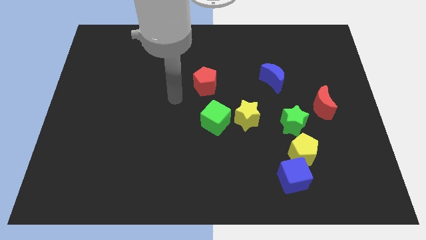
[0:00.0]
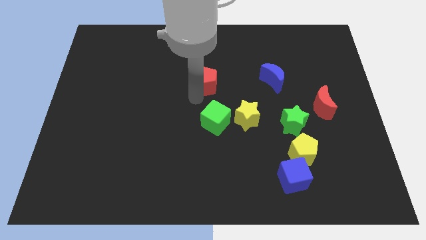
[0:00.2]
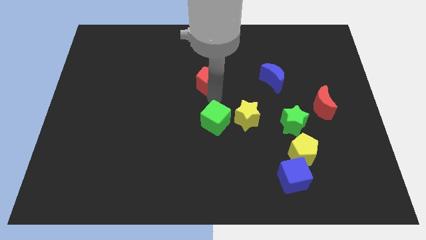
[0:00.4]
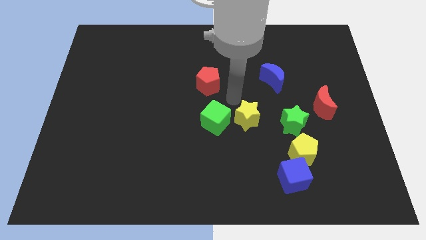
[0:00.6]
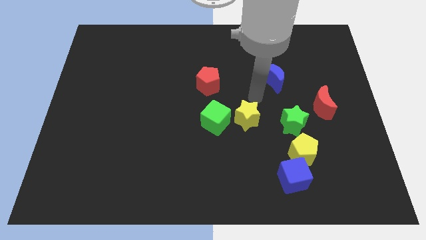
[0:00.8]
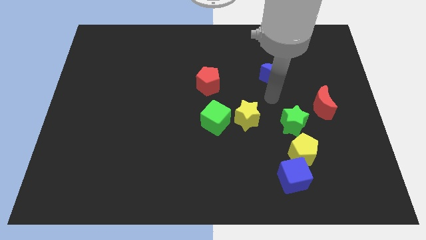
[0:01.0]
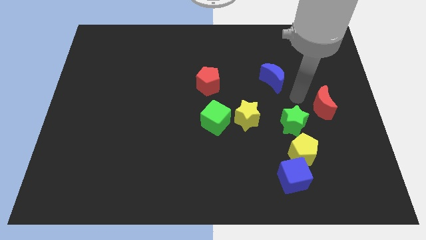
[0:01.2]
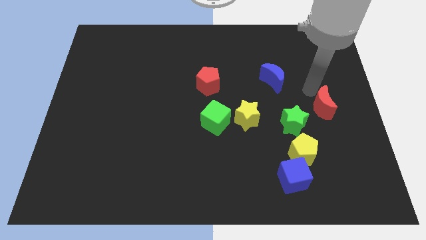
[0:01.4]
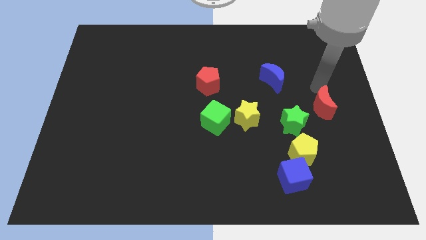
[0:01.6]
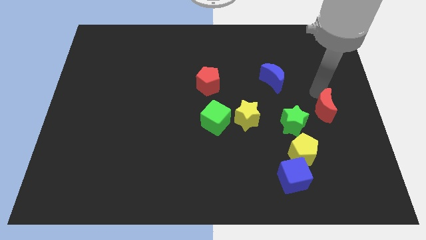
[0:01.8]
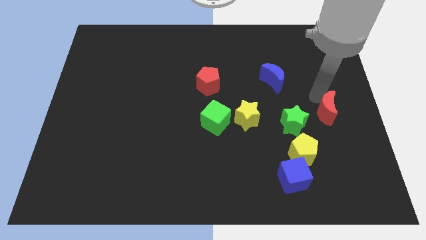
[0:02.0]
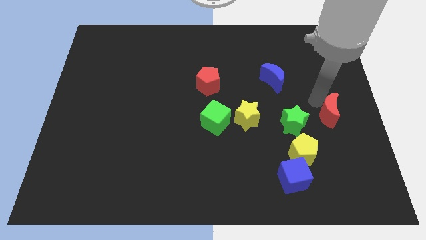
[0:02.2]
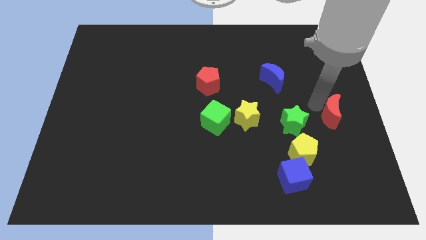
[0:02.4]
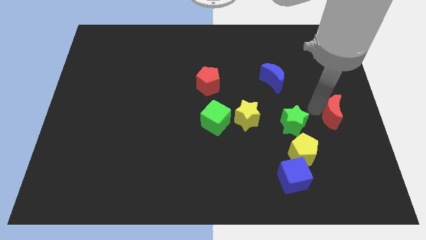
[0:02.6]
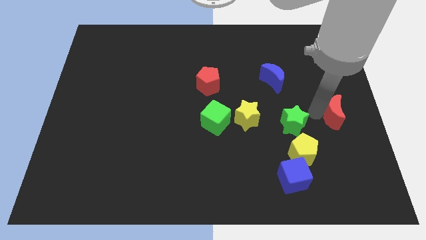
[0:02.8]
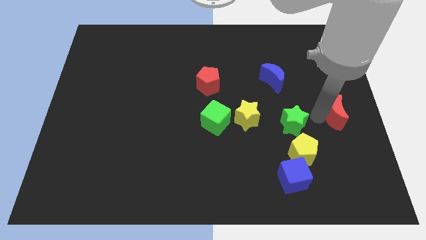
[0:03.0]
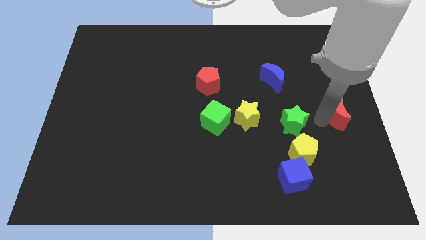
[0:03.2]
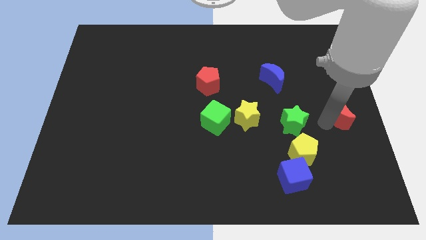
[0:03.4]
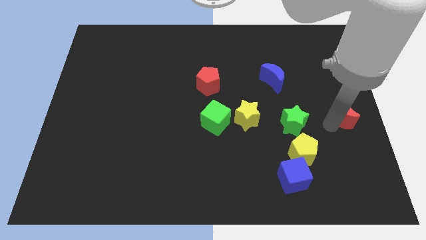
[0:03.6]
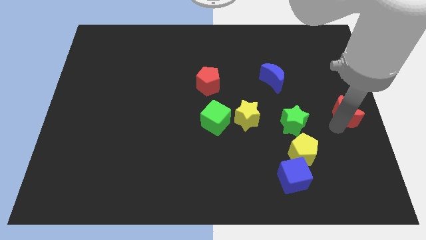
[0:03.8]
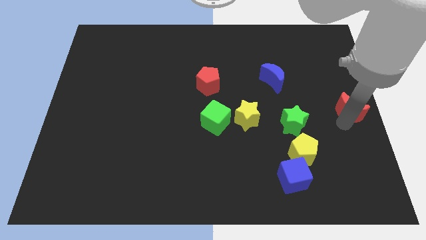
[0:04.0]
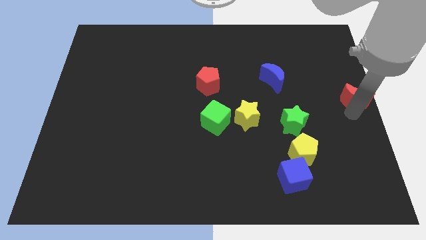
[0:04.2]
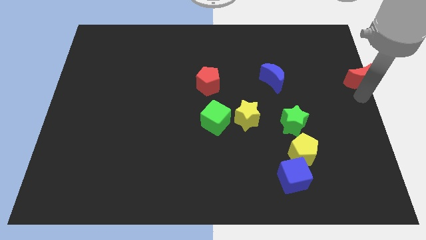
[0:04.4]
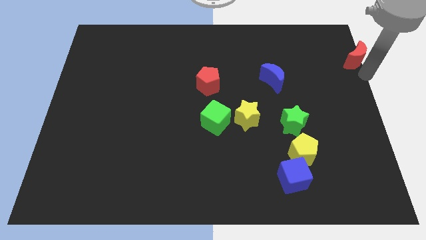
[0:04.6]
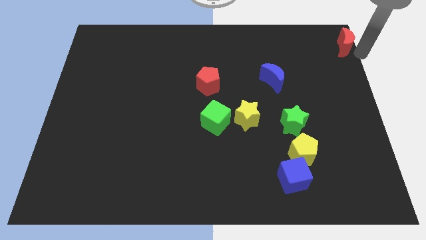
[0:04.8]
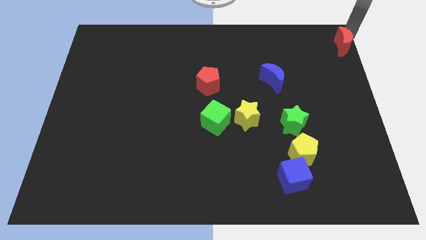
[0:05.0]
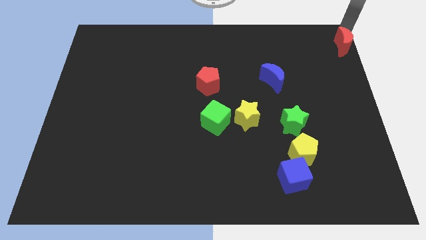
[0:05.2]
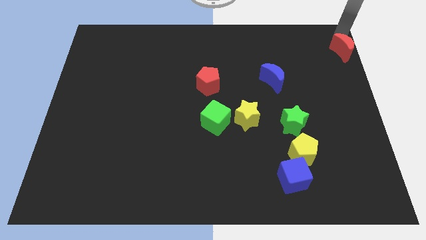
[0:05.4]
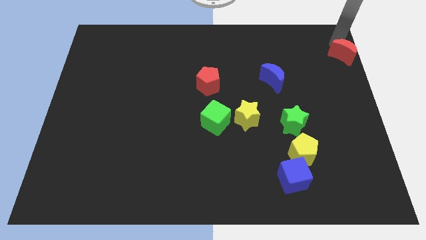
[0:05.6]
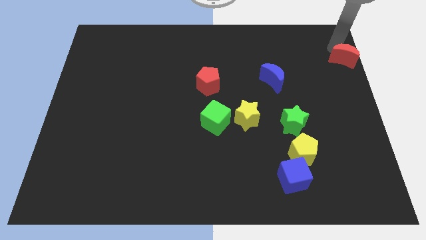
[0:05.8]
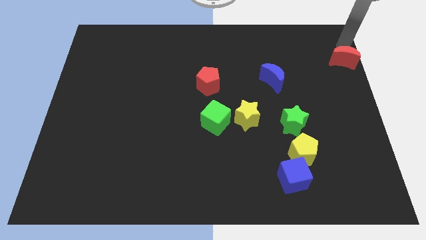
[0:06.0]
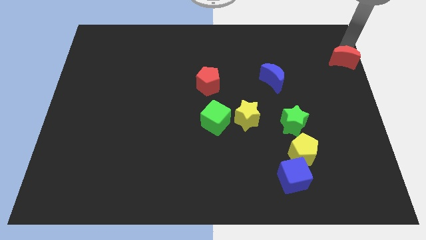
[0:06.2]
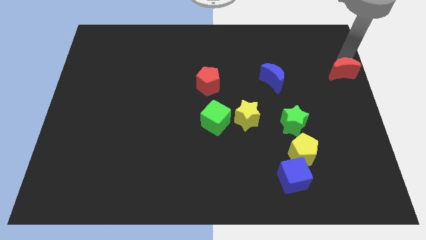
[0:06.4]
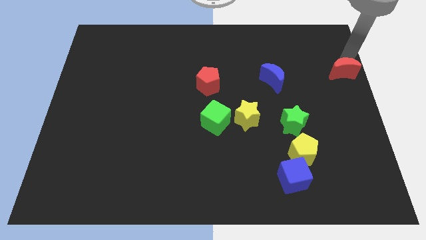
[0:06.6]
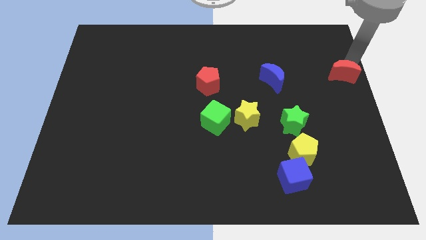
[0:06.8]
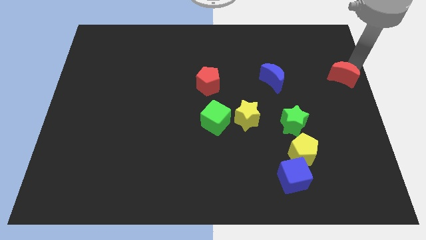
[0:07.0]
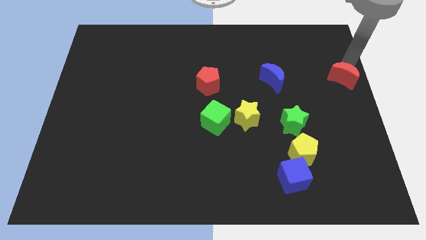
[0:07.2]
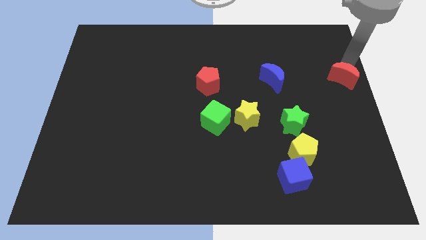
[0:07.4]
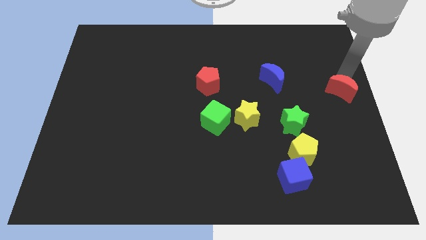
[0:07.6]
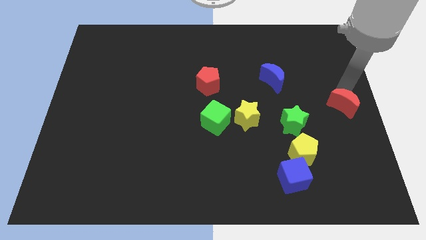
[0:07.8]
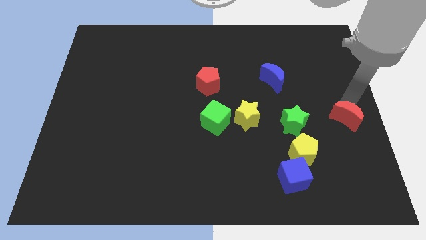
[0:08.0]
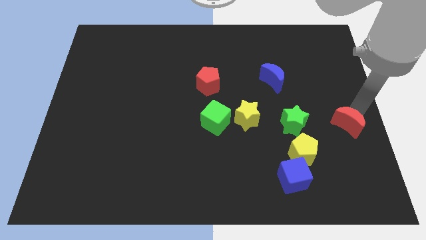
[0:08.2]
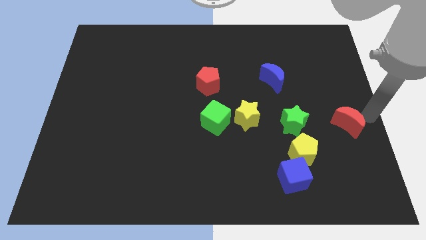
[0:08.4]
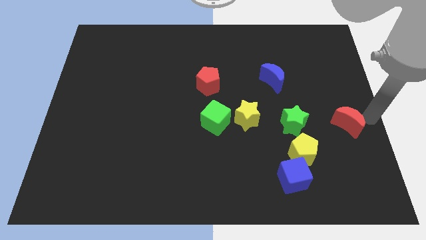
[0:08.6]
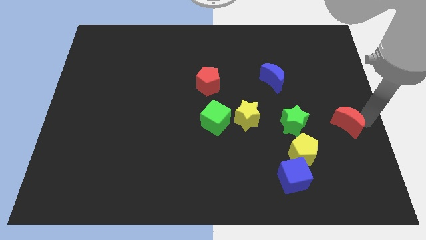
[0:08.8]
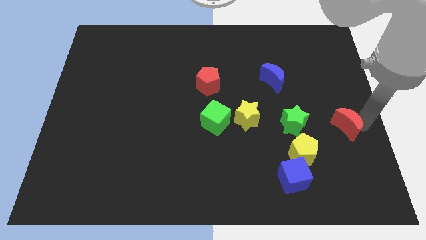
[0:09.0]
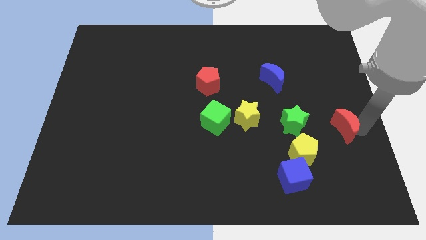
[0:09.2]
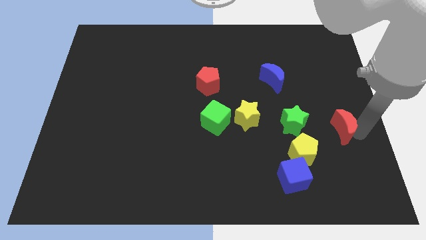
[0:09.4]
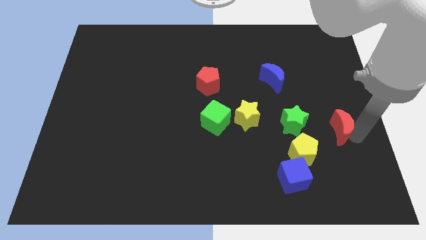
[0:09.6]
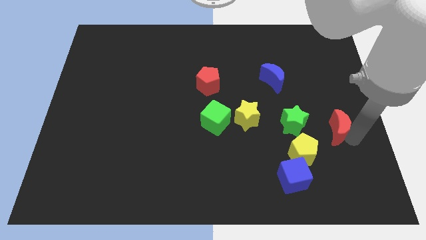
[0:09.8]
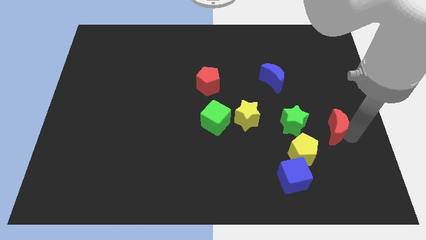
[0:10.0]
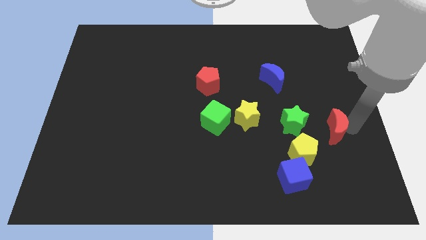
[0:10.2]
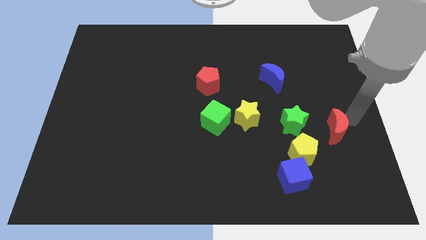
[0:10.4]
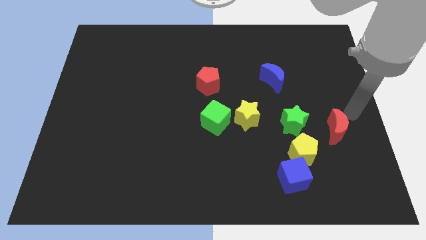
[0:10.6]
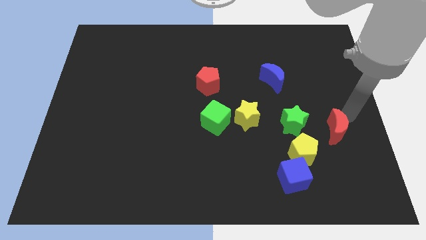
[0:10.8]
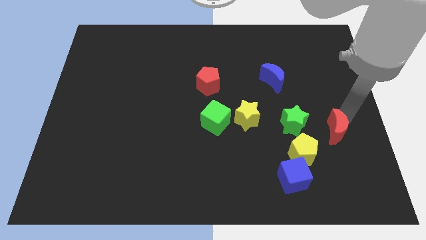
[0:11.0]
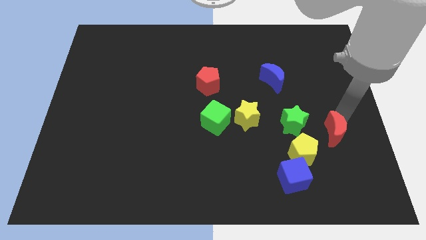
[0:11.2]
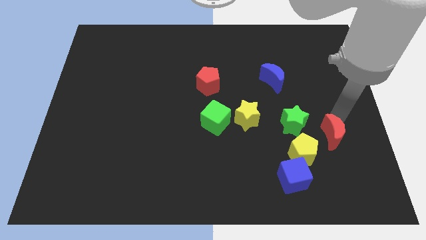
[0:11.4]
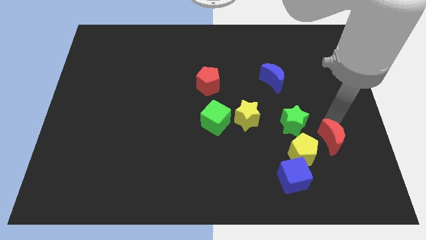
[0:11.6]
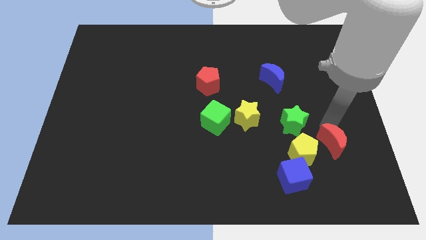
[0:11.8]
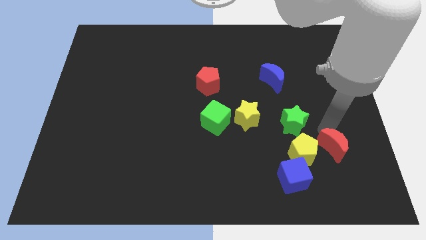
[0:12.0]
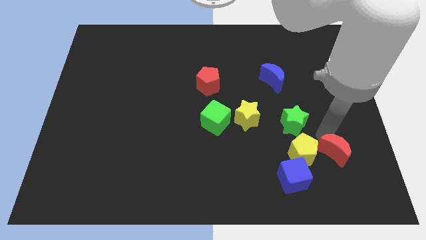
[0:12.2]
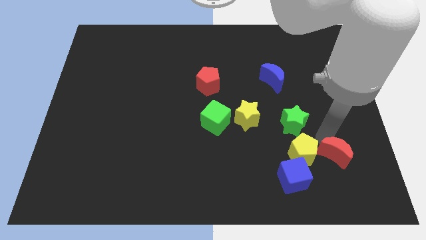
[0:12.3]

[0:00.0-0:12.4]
push the red moon to the bottom right side of the yellow pentagon
